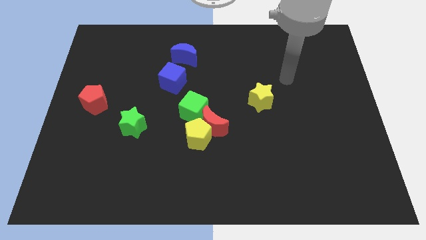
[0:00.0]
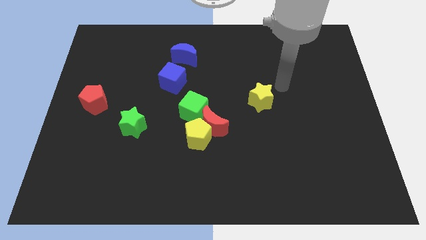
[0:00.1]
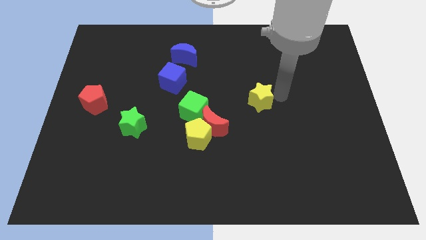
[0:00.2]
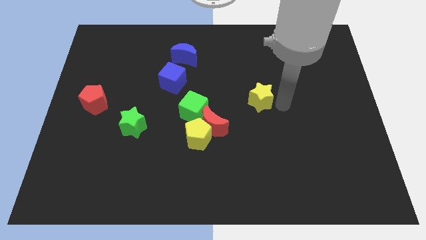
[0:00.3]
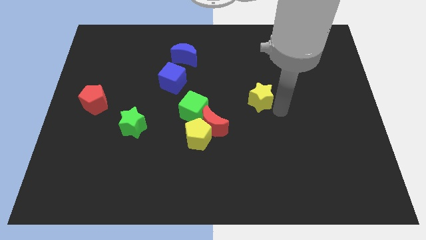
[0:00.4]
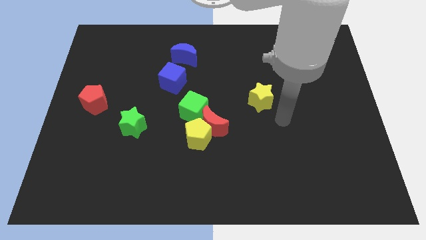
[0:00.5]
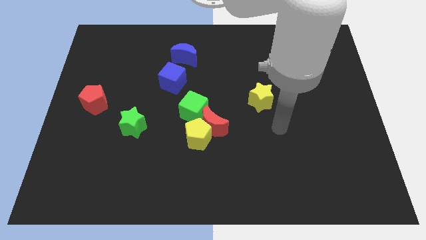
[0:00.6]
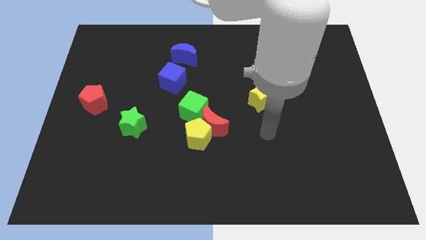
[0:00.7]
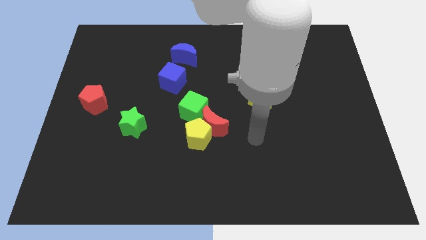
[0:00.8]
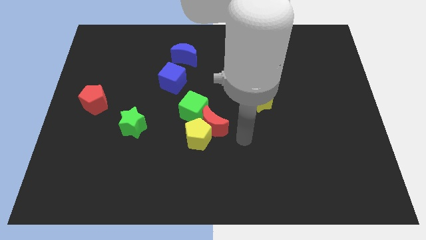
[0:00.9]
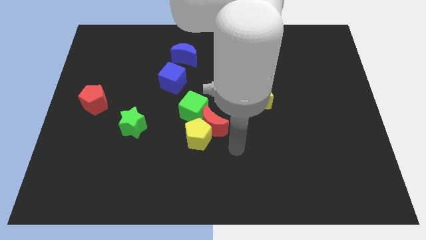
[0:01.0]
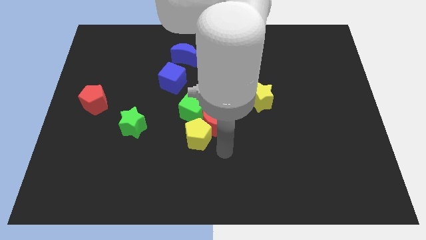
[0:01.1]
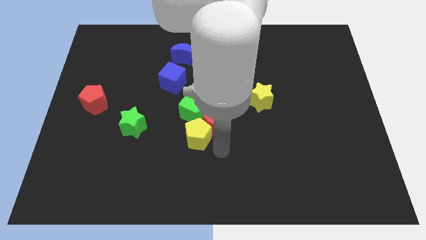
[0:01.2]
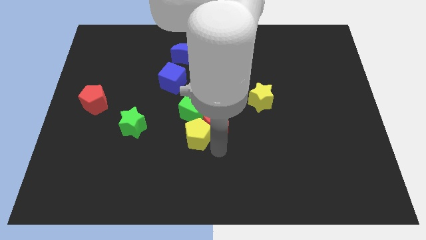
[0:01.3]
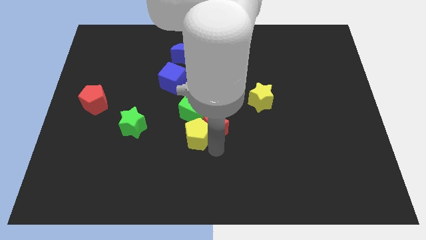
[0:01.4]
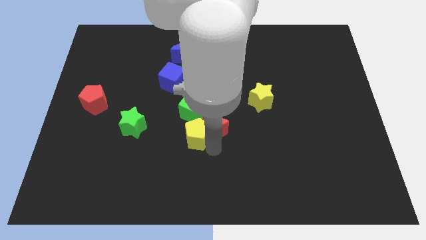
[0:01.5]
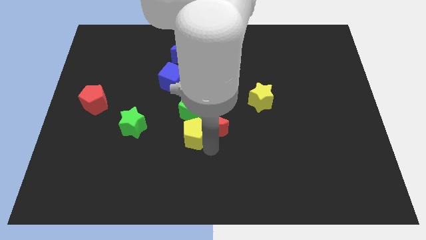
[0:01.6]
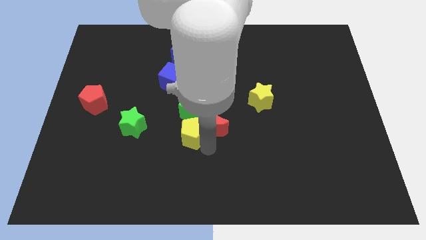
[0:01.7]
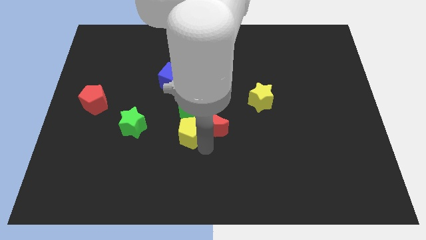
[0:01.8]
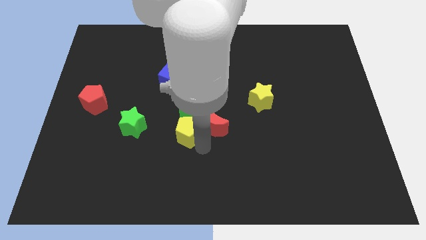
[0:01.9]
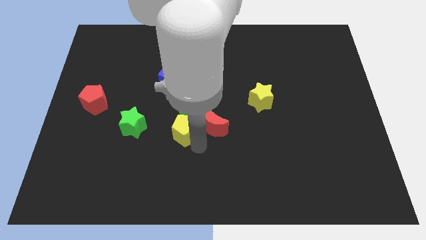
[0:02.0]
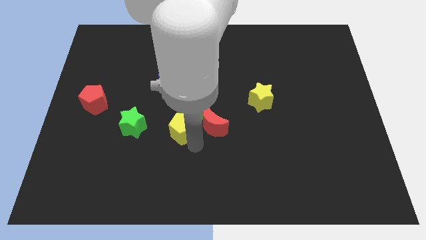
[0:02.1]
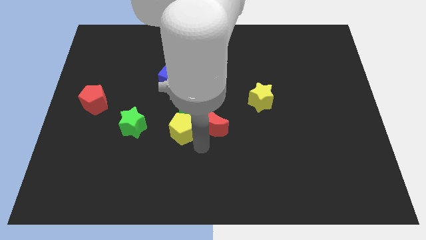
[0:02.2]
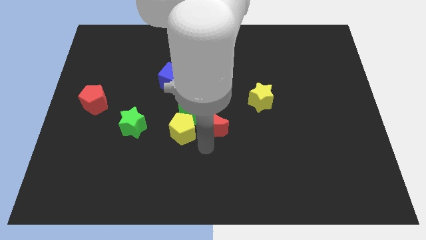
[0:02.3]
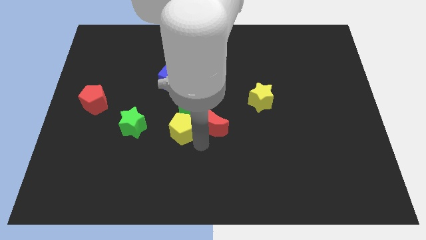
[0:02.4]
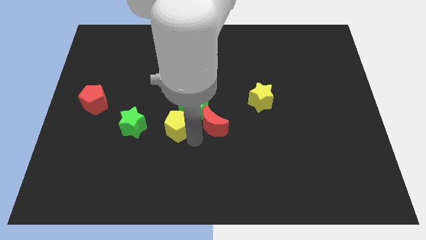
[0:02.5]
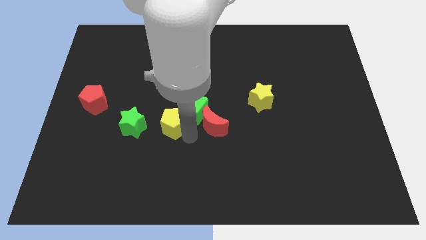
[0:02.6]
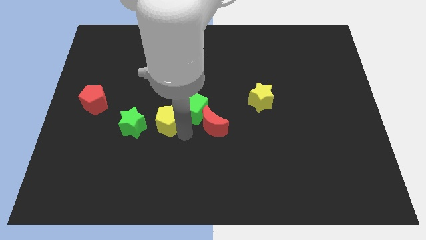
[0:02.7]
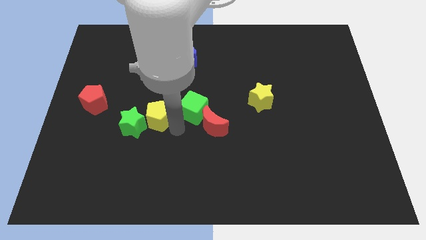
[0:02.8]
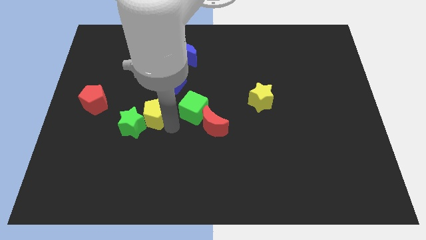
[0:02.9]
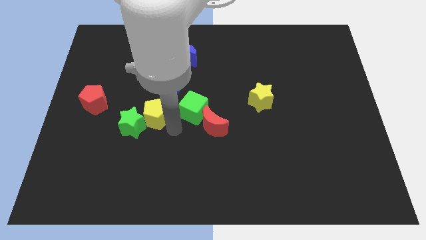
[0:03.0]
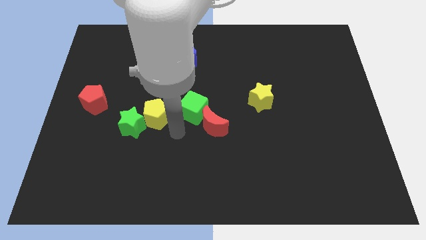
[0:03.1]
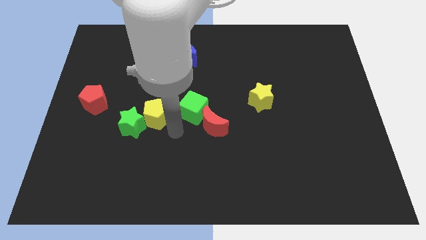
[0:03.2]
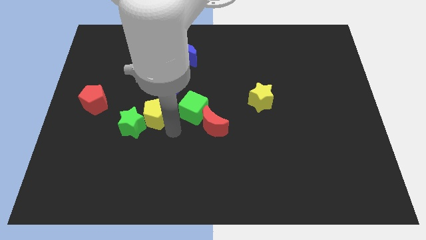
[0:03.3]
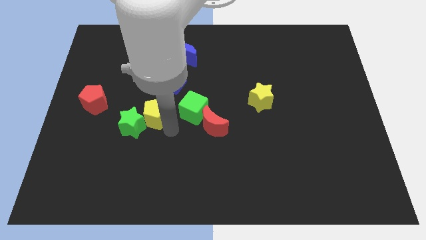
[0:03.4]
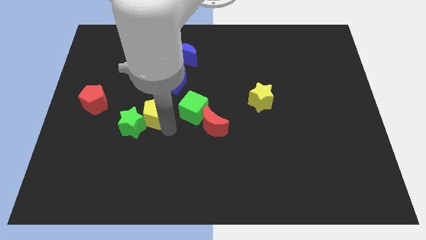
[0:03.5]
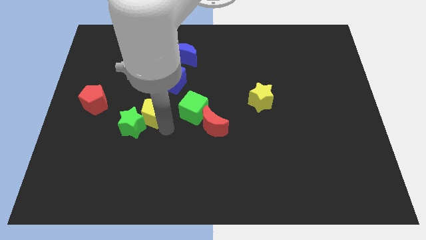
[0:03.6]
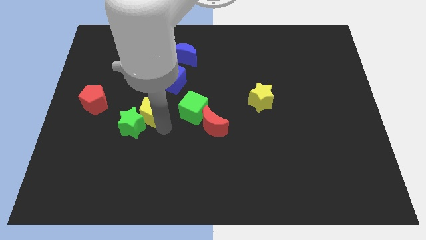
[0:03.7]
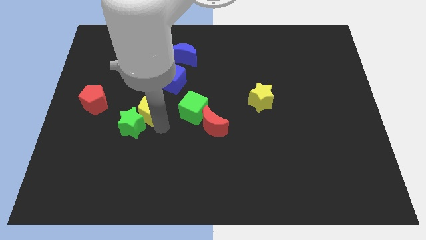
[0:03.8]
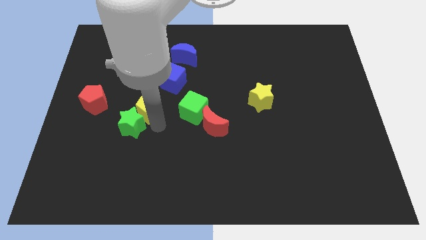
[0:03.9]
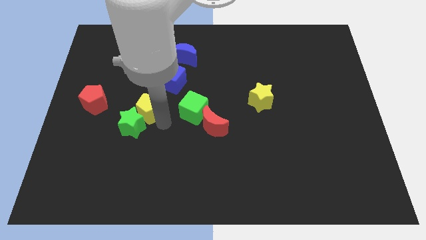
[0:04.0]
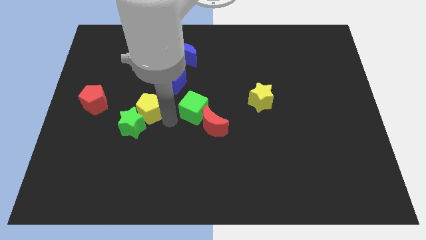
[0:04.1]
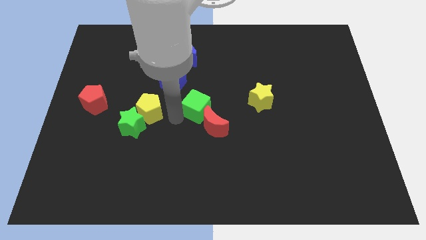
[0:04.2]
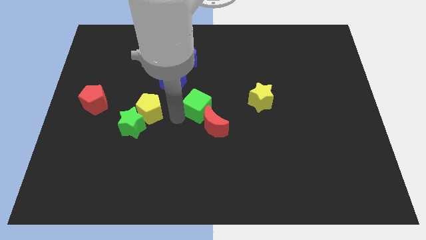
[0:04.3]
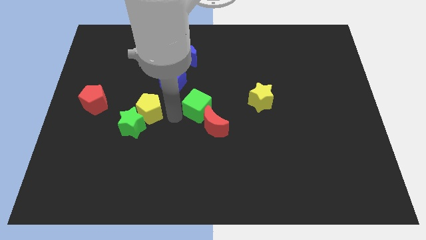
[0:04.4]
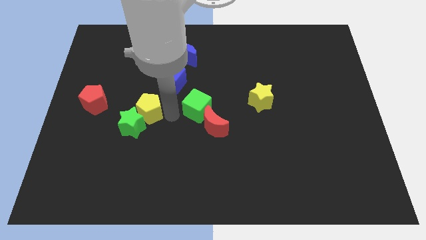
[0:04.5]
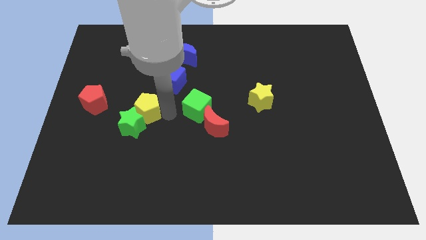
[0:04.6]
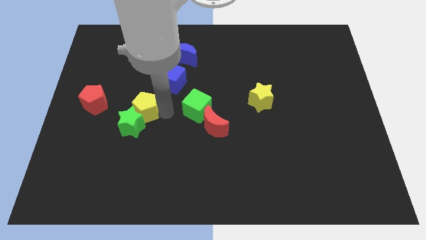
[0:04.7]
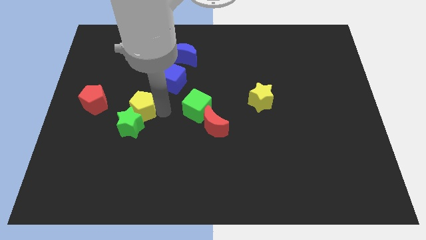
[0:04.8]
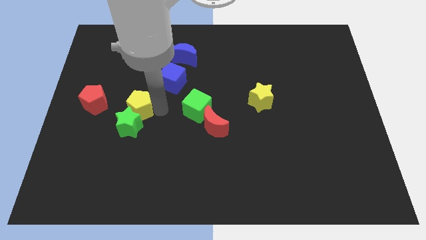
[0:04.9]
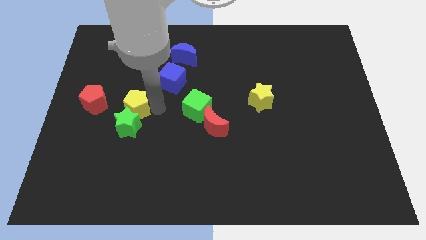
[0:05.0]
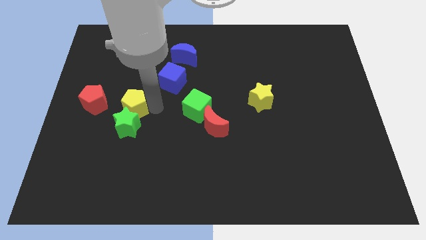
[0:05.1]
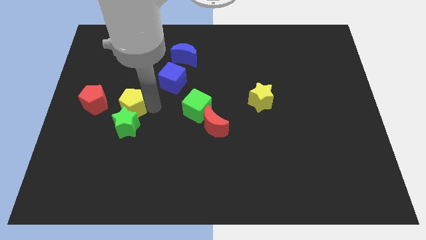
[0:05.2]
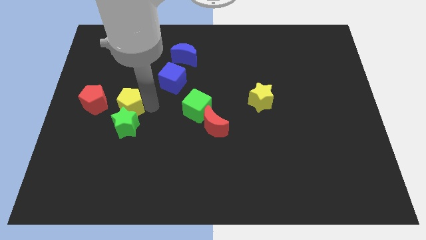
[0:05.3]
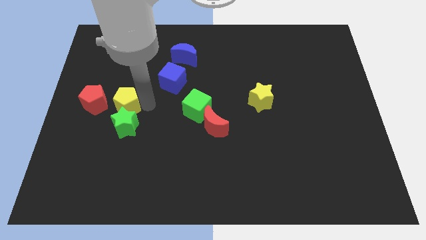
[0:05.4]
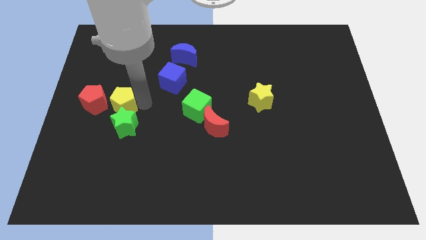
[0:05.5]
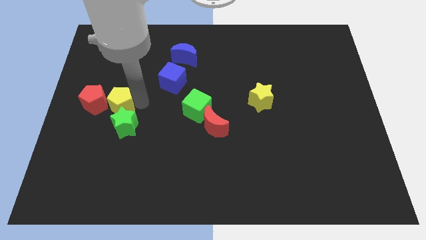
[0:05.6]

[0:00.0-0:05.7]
move the yellow pentagon next to the red pentagon

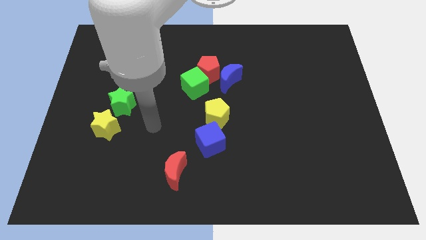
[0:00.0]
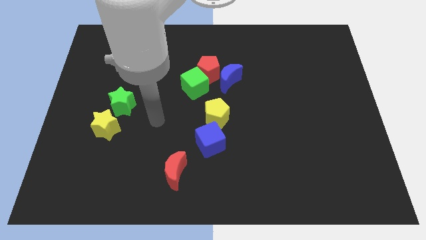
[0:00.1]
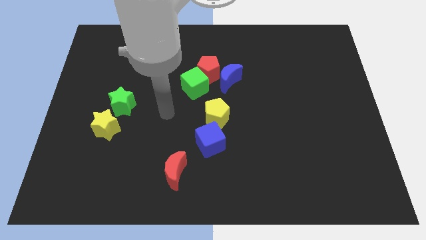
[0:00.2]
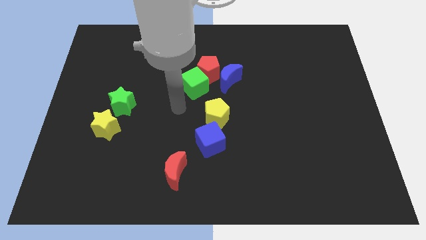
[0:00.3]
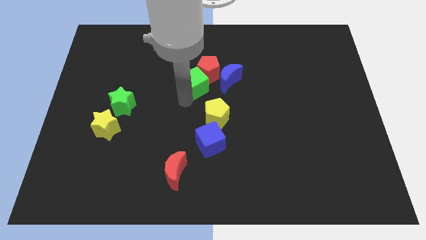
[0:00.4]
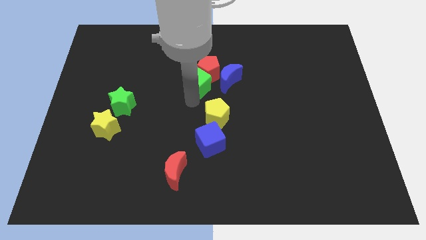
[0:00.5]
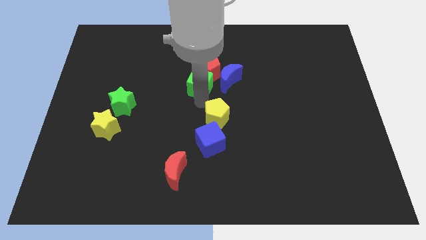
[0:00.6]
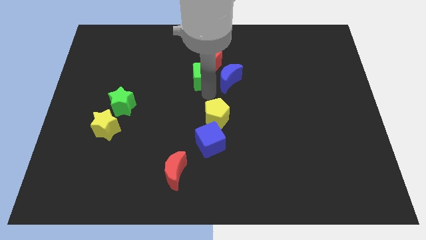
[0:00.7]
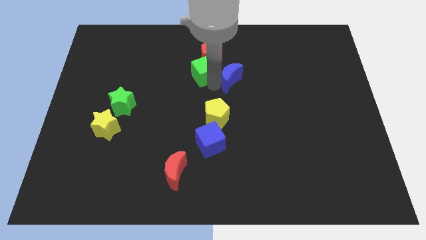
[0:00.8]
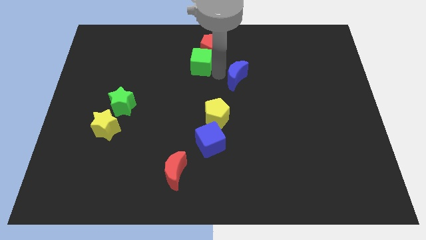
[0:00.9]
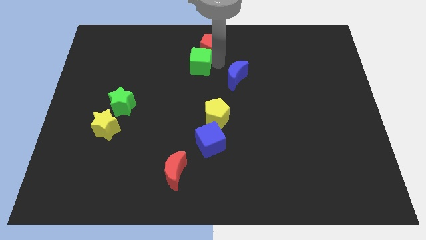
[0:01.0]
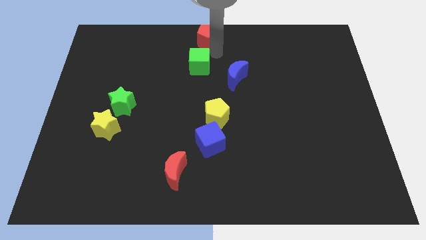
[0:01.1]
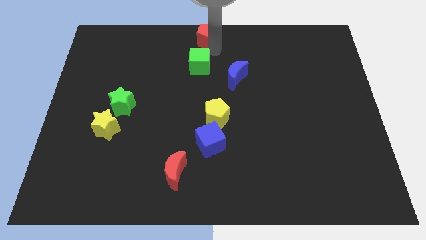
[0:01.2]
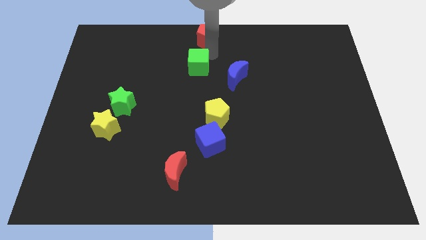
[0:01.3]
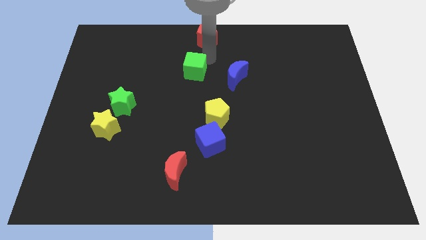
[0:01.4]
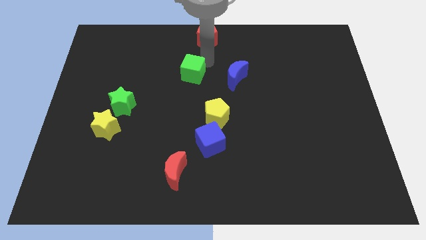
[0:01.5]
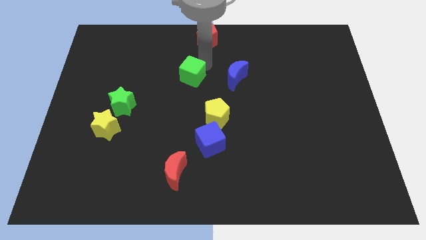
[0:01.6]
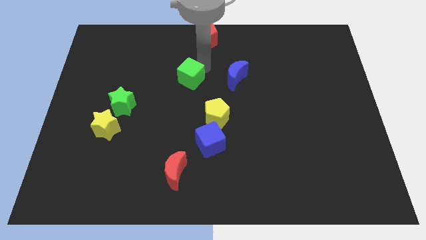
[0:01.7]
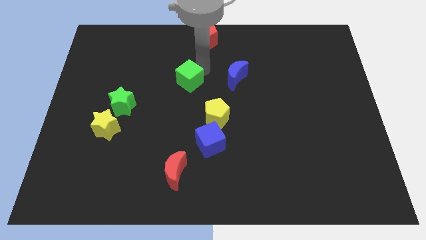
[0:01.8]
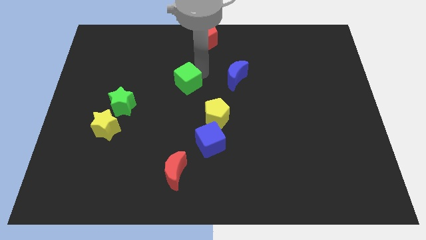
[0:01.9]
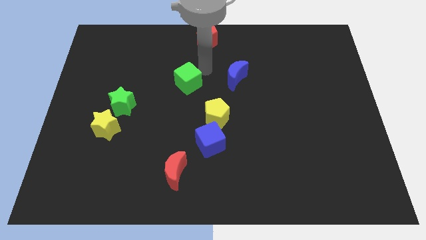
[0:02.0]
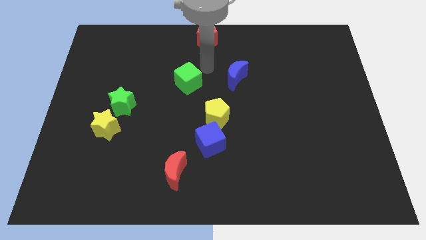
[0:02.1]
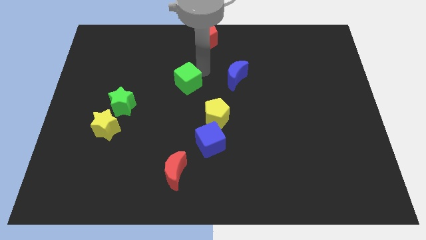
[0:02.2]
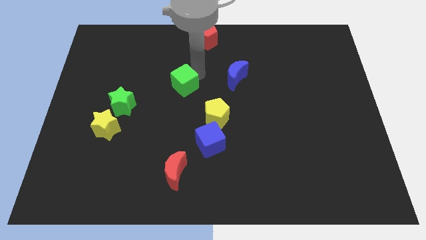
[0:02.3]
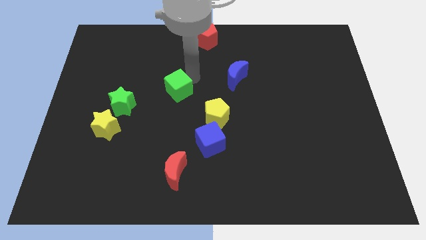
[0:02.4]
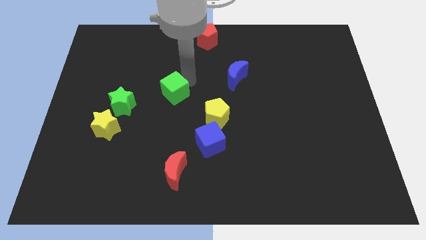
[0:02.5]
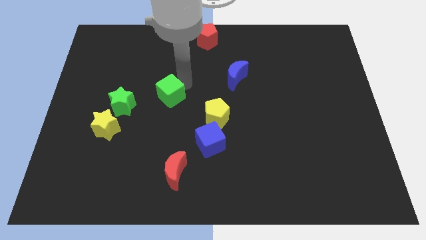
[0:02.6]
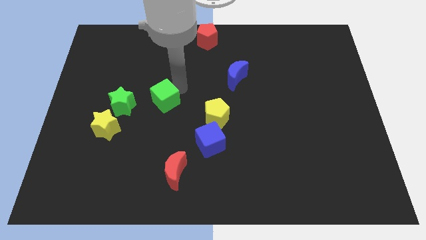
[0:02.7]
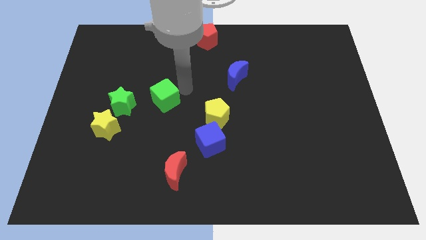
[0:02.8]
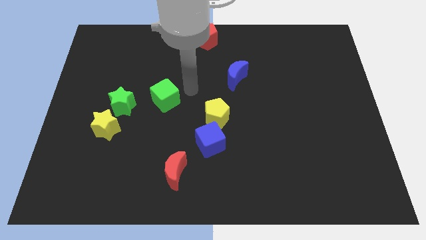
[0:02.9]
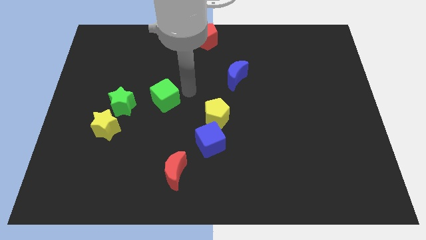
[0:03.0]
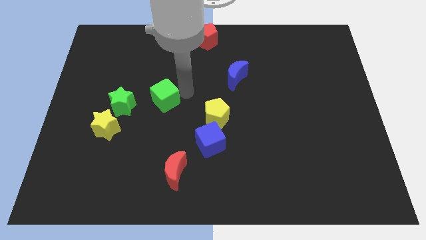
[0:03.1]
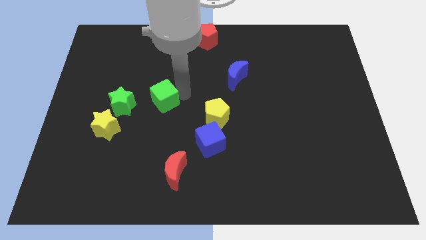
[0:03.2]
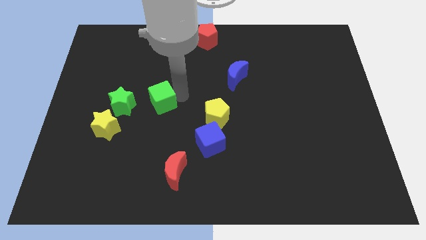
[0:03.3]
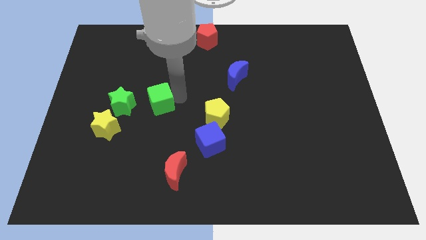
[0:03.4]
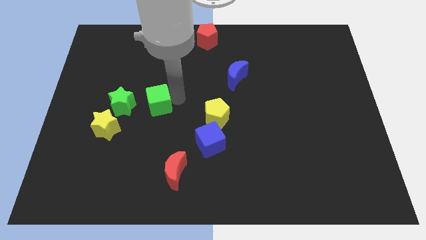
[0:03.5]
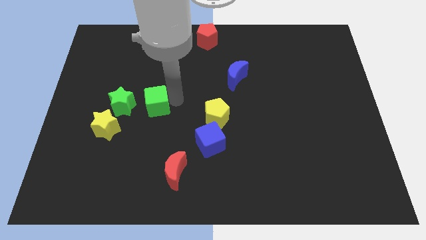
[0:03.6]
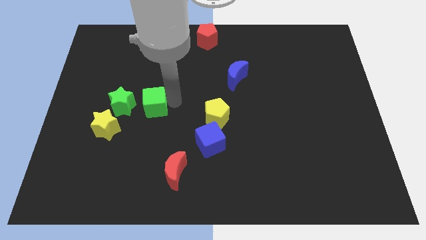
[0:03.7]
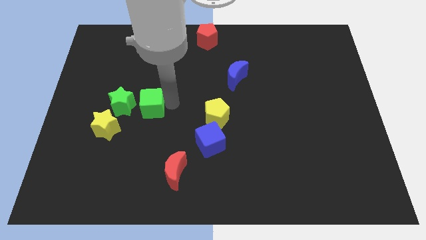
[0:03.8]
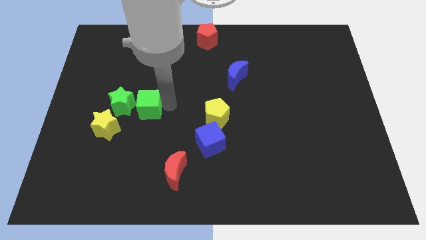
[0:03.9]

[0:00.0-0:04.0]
put the green cube to the green star
